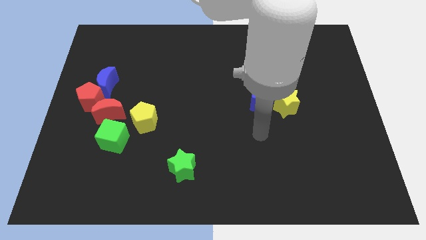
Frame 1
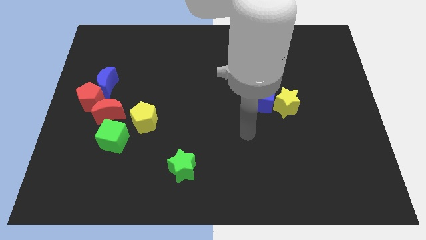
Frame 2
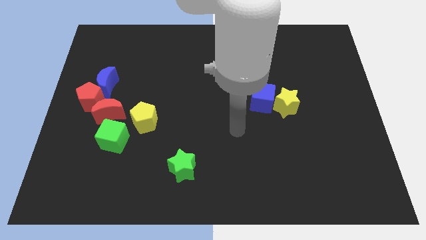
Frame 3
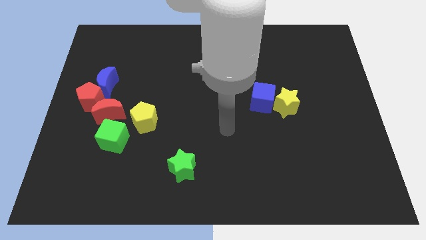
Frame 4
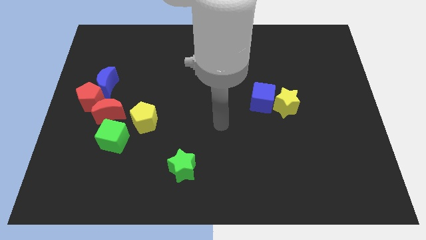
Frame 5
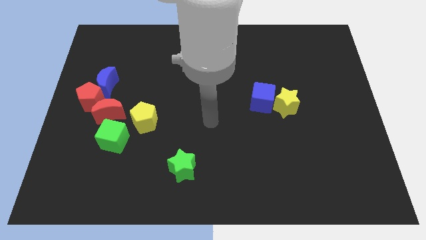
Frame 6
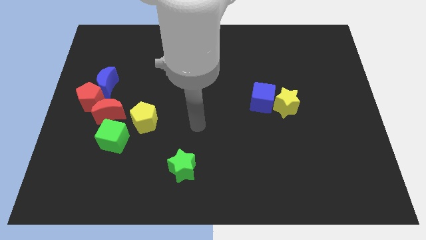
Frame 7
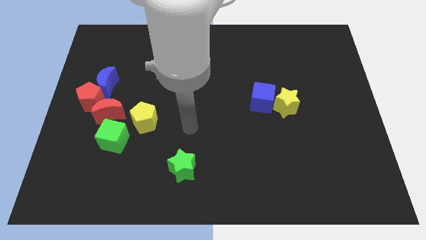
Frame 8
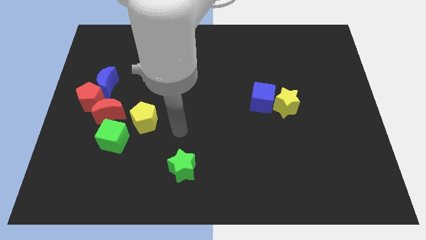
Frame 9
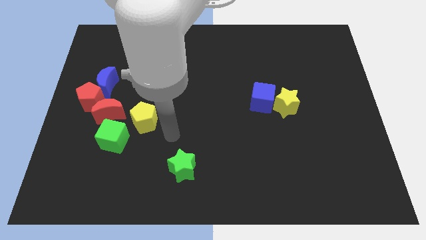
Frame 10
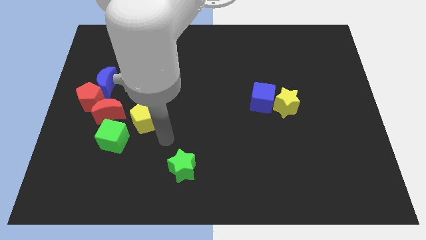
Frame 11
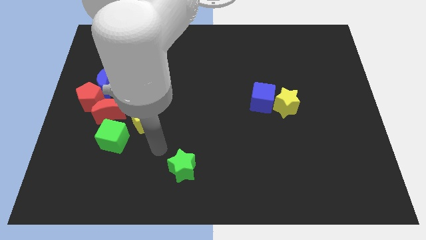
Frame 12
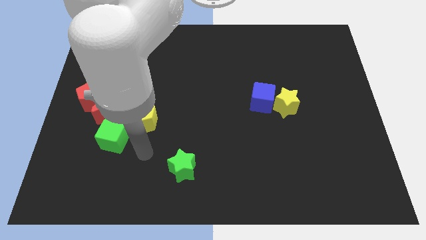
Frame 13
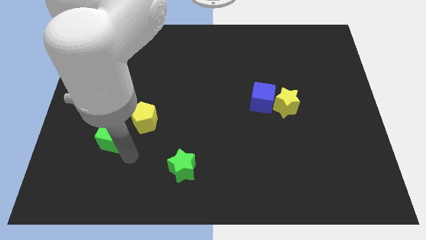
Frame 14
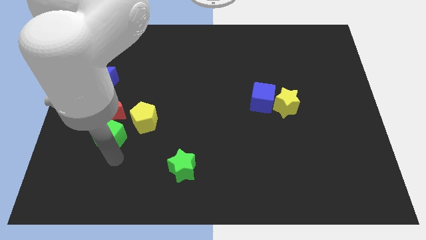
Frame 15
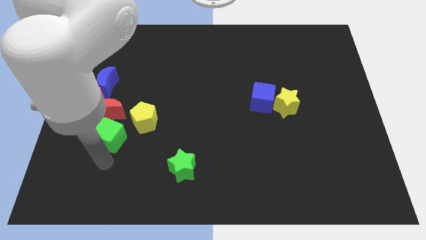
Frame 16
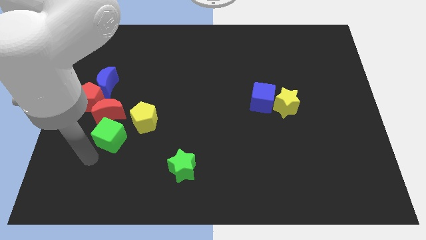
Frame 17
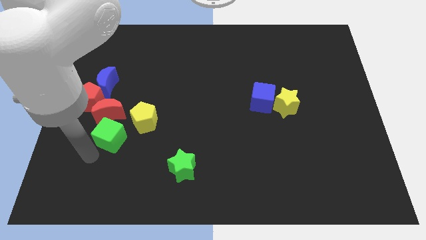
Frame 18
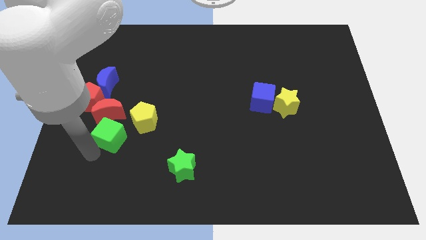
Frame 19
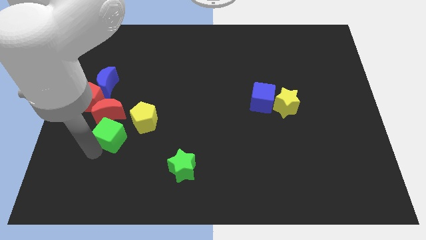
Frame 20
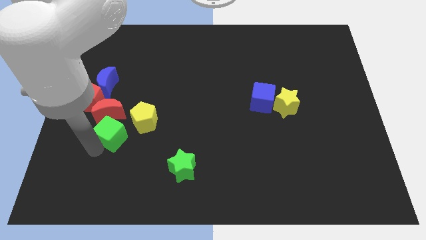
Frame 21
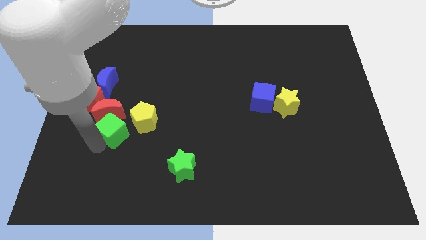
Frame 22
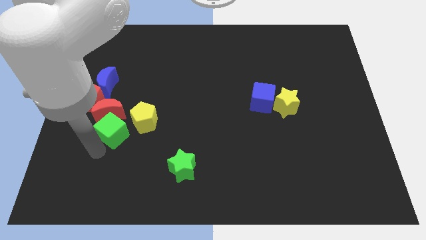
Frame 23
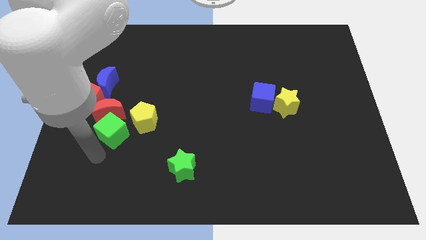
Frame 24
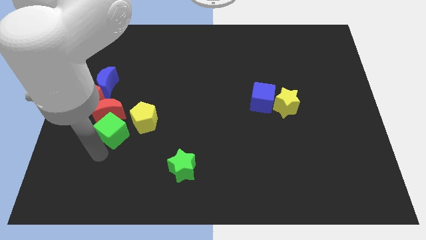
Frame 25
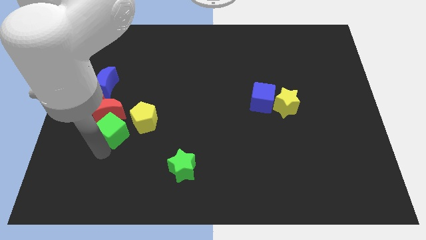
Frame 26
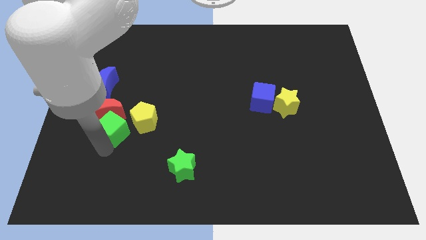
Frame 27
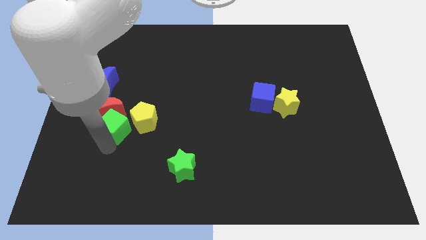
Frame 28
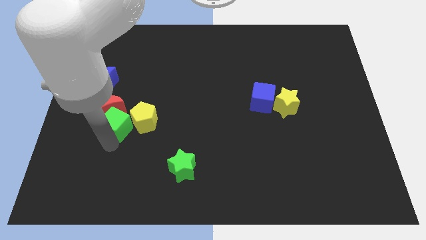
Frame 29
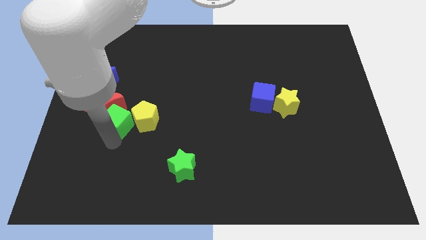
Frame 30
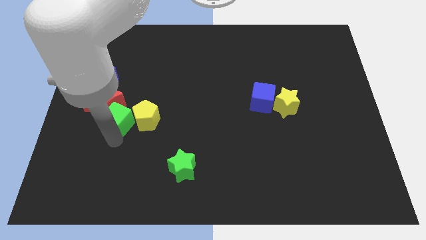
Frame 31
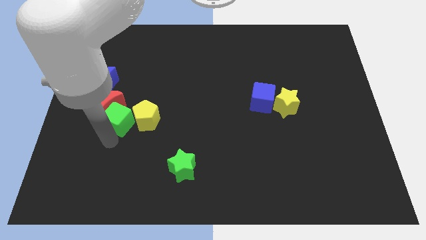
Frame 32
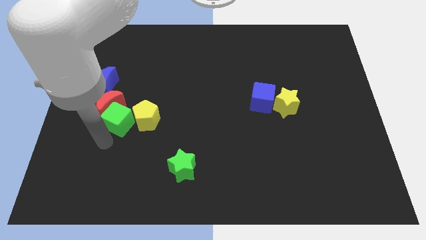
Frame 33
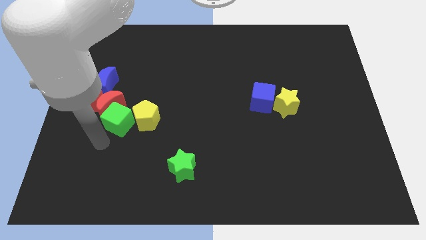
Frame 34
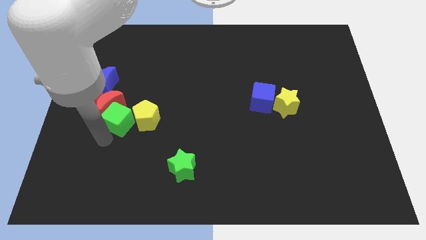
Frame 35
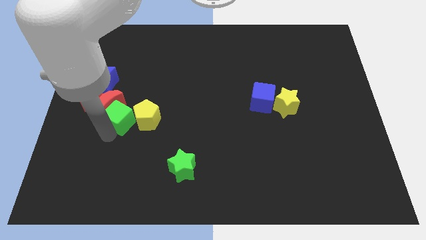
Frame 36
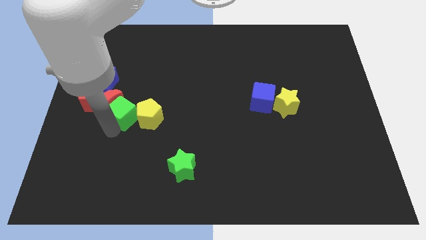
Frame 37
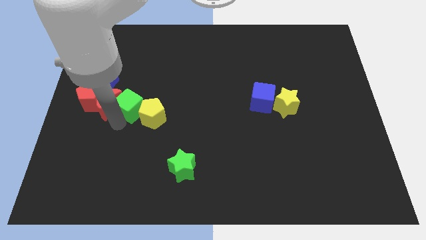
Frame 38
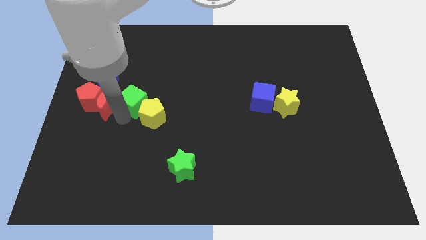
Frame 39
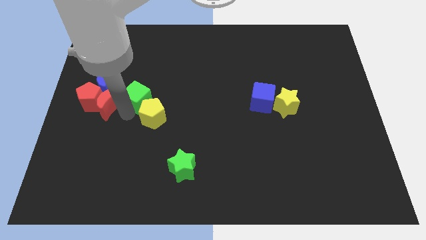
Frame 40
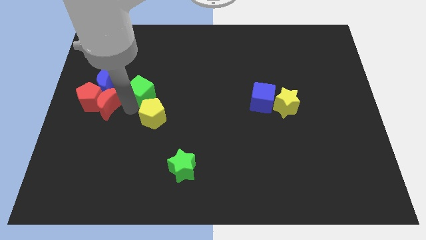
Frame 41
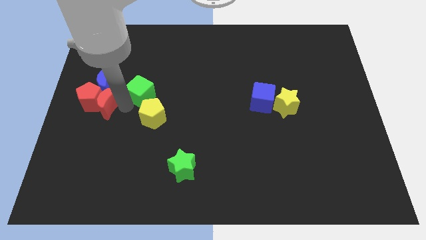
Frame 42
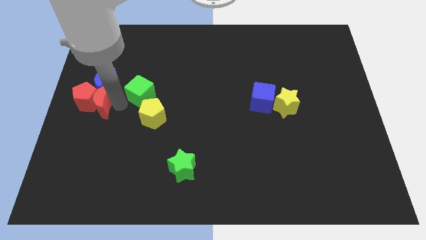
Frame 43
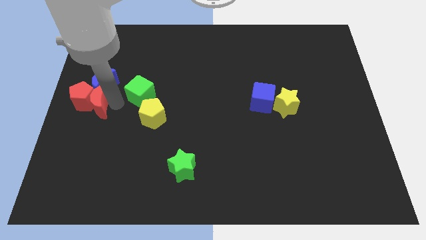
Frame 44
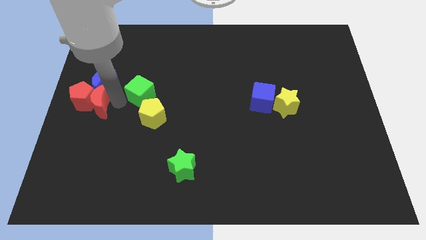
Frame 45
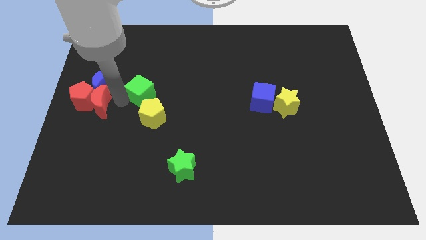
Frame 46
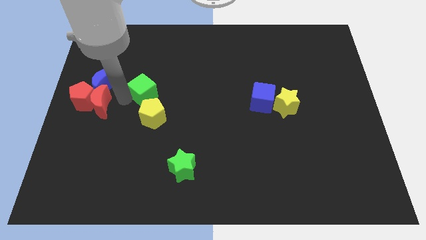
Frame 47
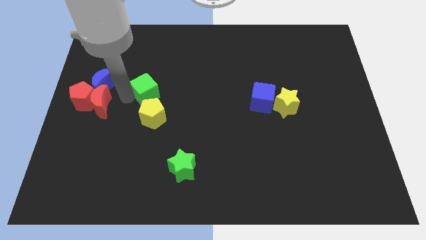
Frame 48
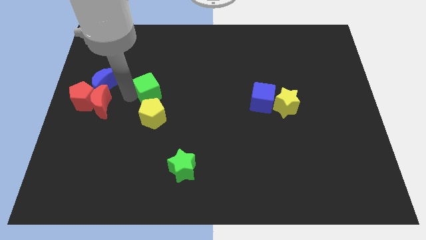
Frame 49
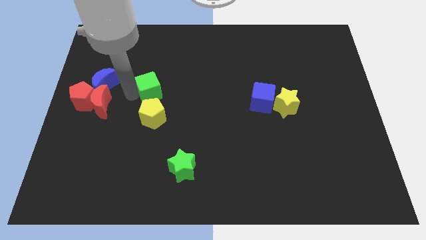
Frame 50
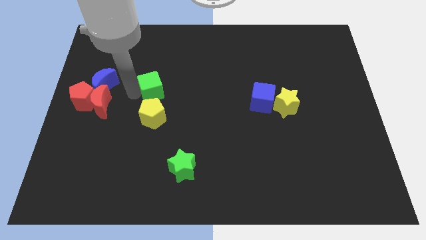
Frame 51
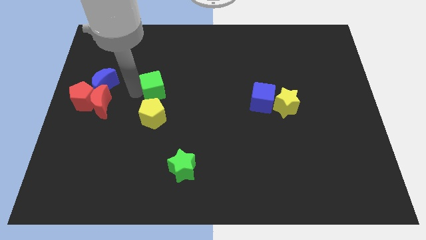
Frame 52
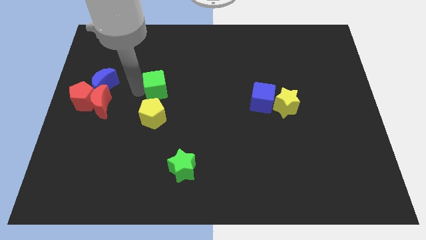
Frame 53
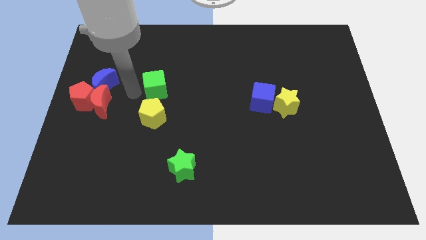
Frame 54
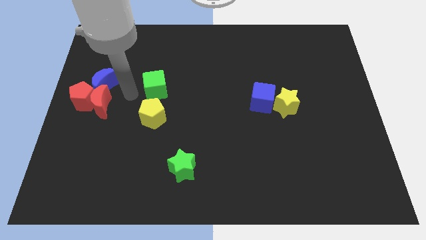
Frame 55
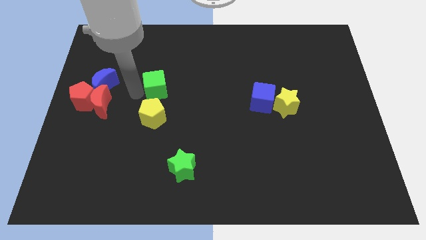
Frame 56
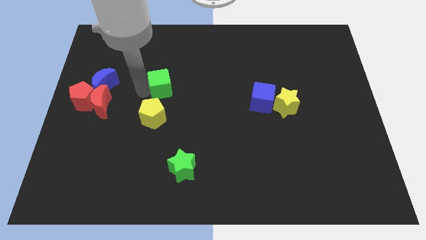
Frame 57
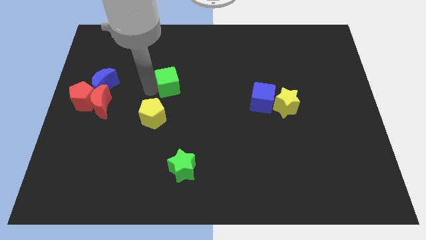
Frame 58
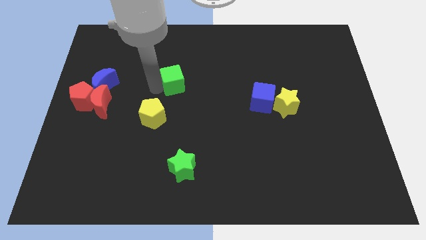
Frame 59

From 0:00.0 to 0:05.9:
slide the green cube diagonally up and to the right

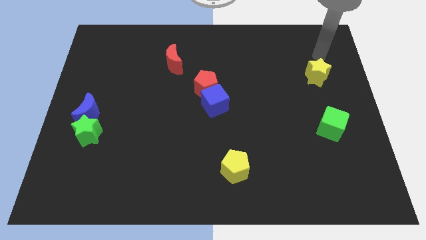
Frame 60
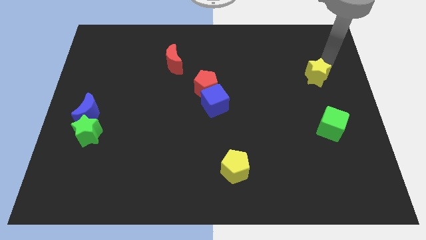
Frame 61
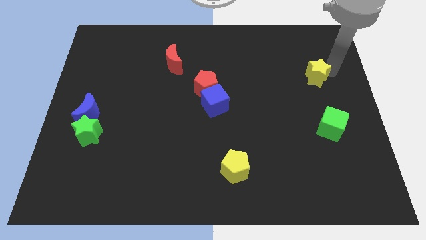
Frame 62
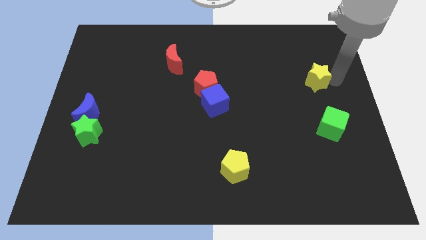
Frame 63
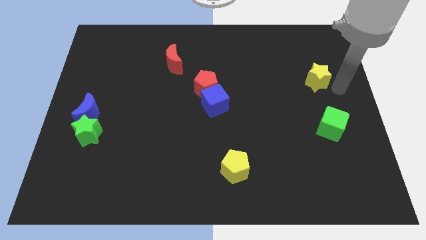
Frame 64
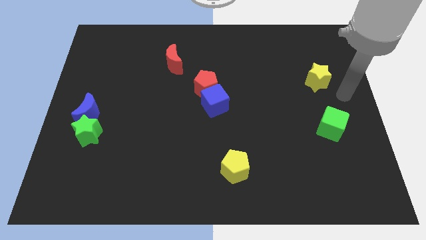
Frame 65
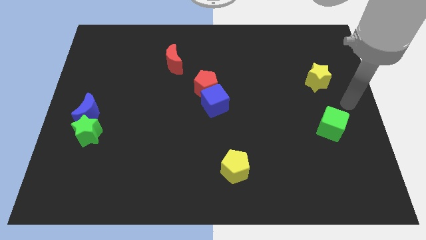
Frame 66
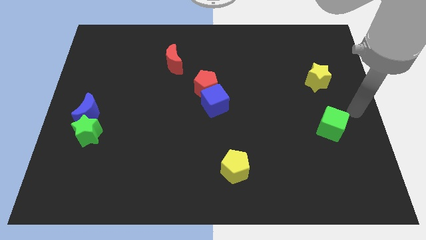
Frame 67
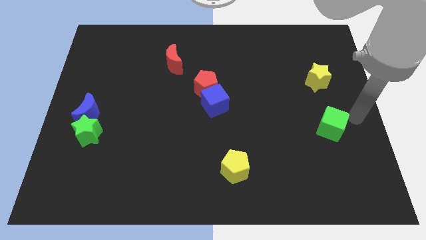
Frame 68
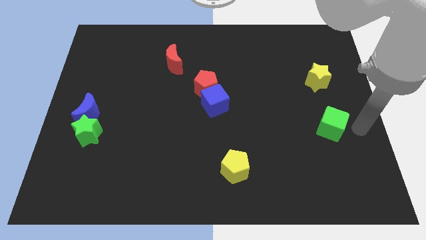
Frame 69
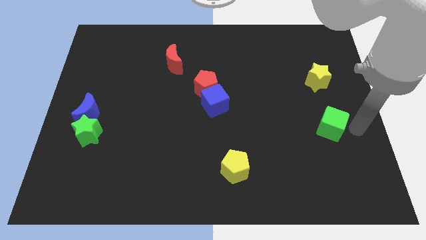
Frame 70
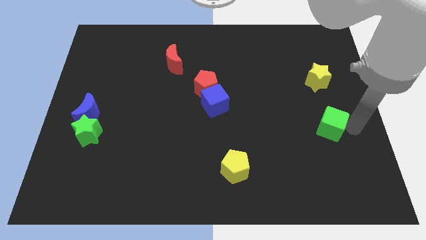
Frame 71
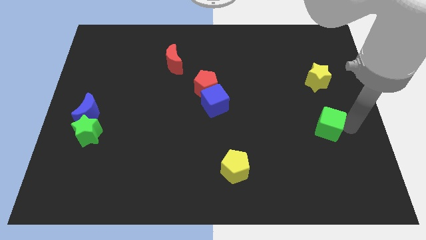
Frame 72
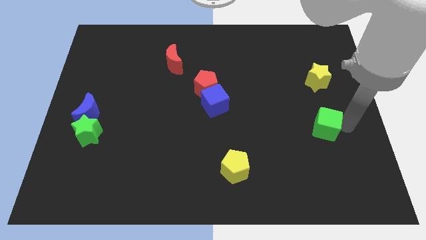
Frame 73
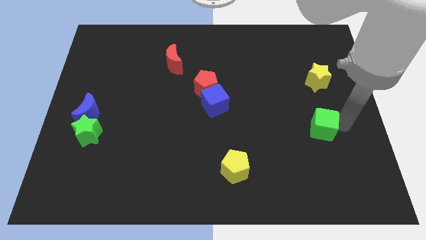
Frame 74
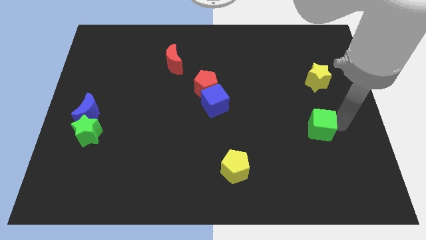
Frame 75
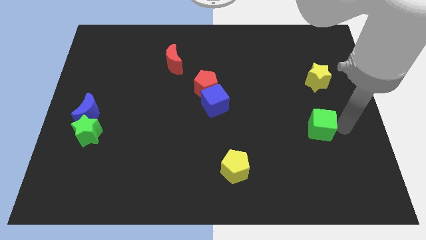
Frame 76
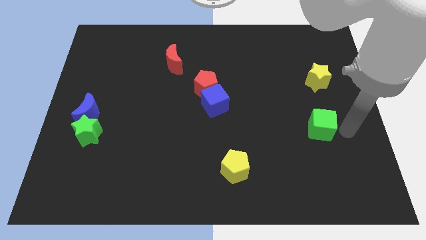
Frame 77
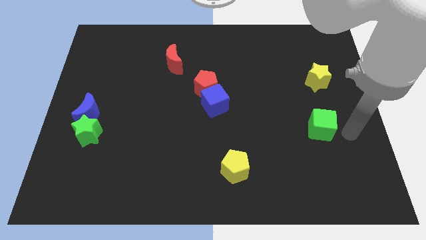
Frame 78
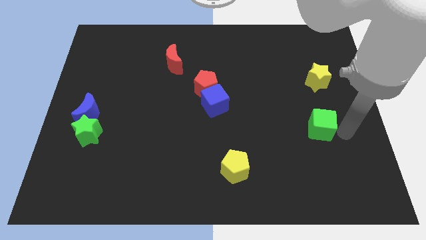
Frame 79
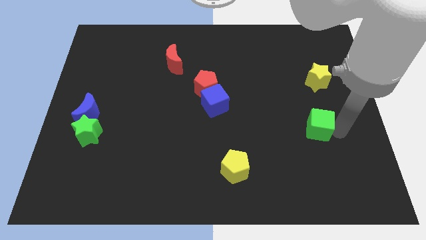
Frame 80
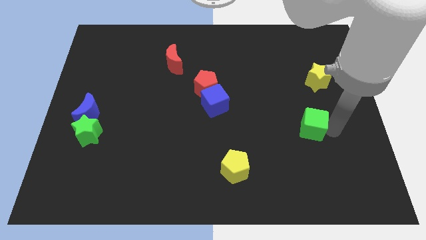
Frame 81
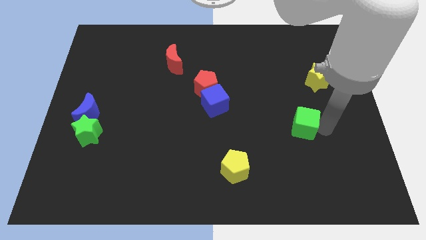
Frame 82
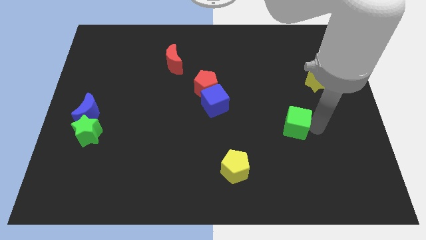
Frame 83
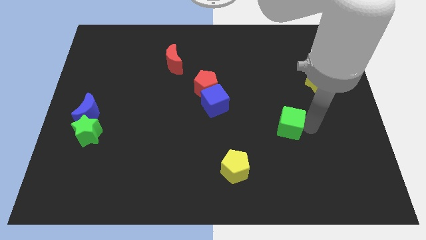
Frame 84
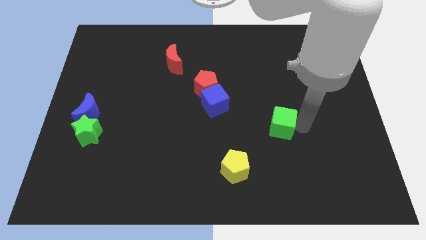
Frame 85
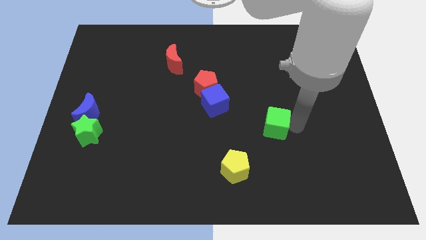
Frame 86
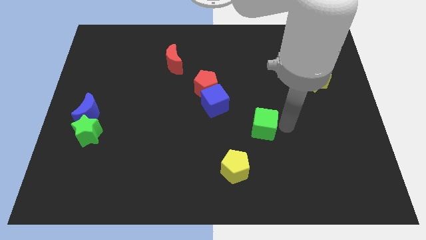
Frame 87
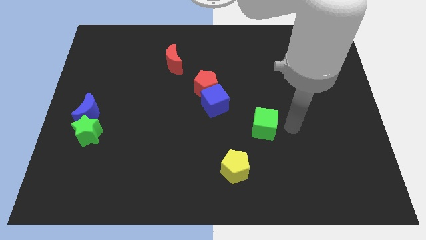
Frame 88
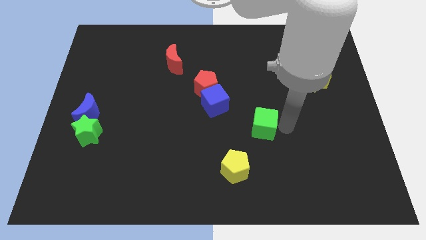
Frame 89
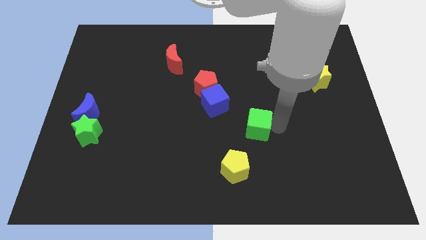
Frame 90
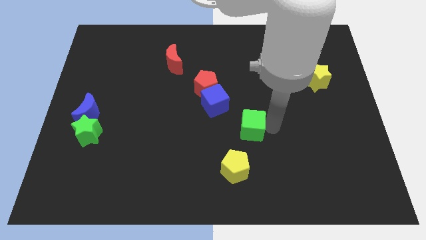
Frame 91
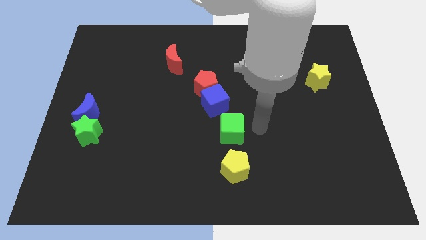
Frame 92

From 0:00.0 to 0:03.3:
push the green cube to the left
